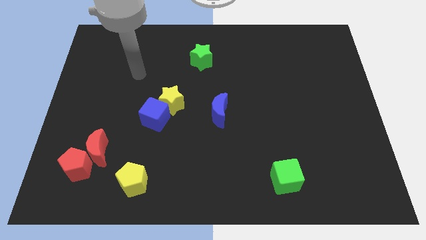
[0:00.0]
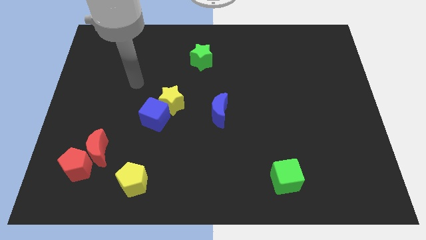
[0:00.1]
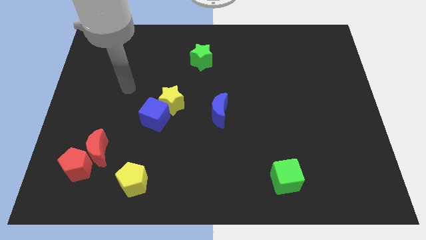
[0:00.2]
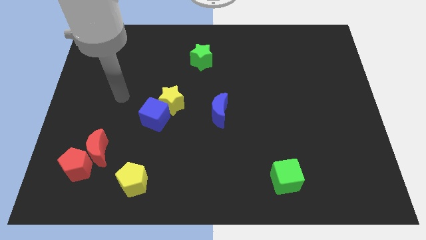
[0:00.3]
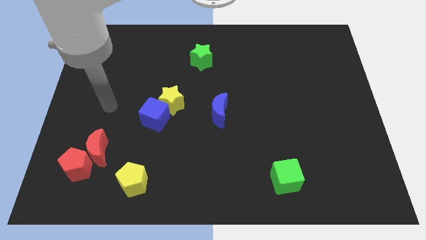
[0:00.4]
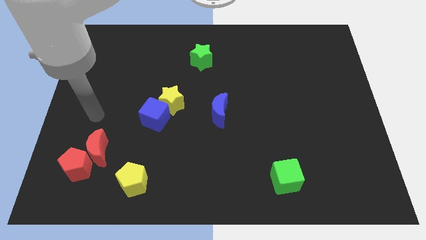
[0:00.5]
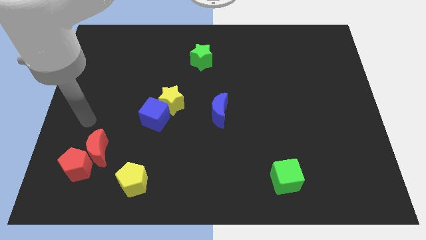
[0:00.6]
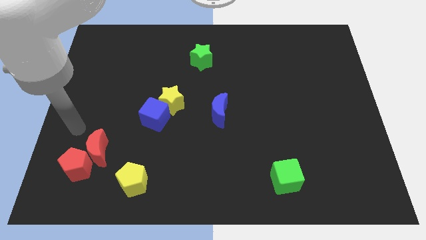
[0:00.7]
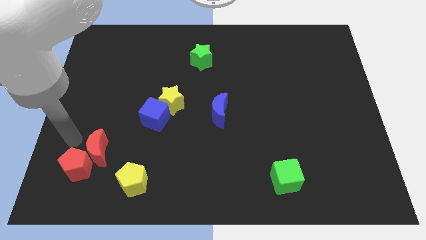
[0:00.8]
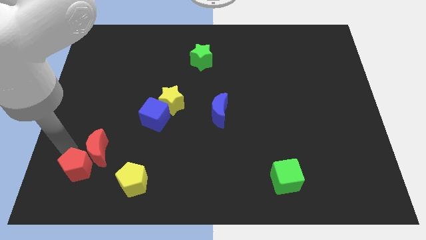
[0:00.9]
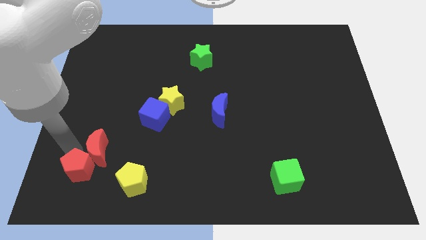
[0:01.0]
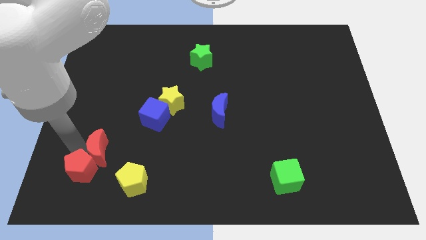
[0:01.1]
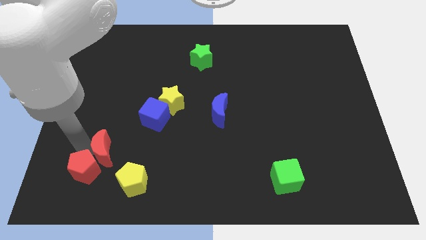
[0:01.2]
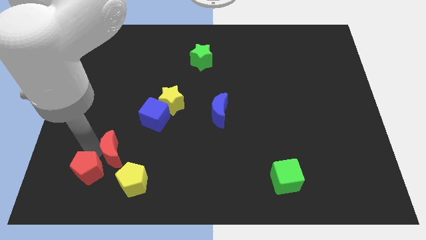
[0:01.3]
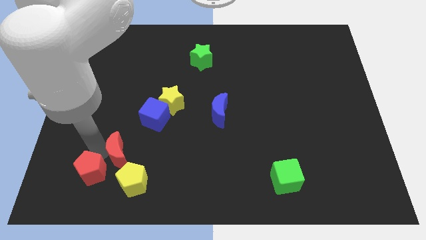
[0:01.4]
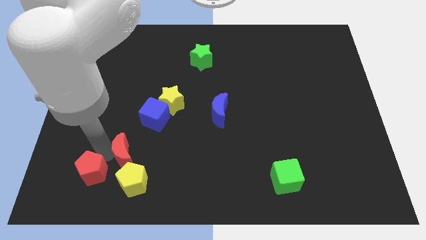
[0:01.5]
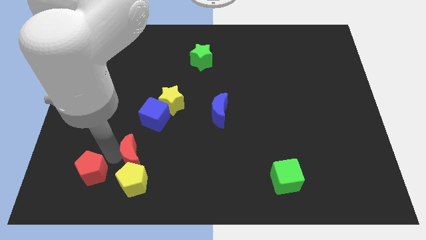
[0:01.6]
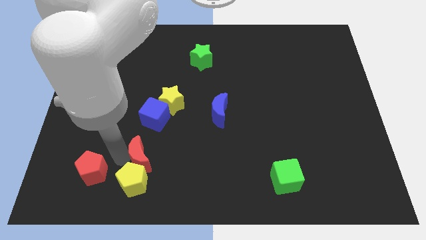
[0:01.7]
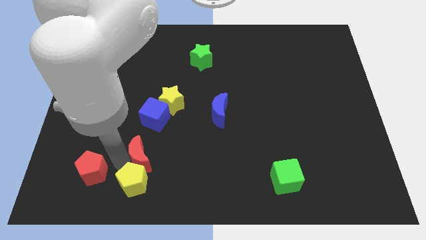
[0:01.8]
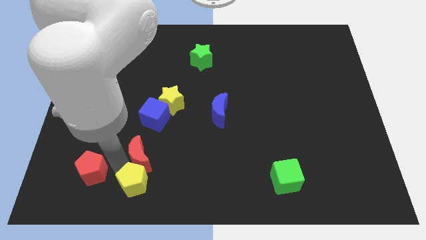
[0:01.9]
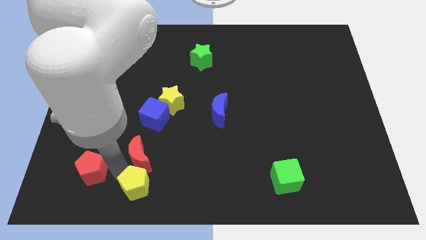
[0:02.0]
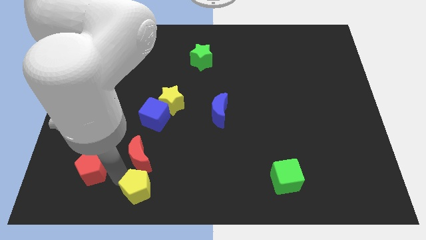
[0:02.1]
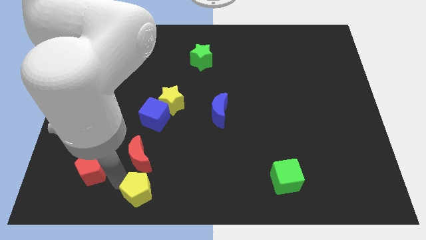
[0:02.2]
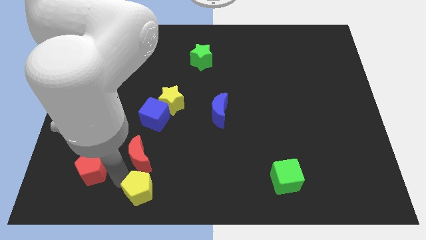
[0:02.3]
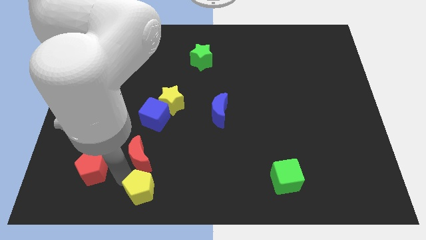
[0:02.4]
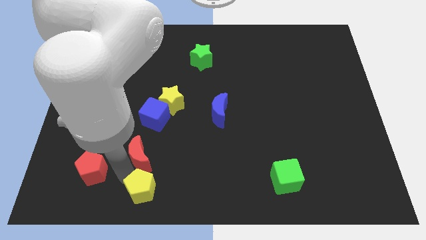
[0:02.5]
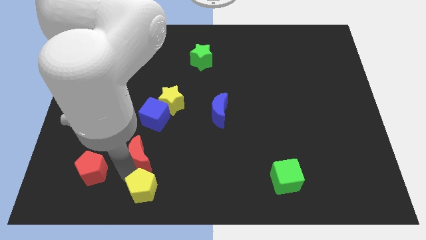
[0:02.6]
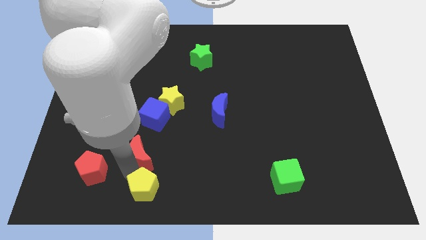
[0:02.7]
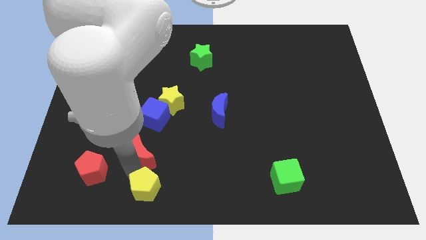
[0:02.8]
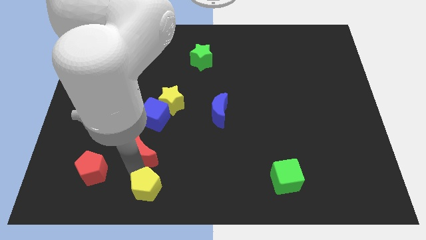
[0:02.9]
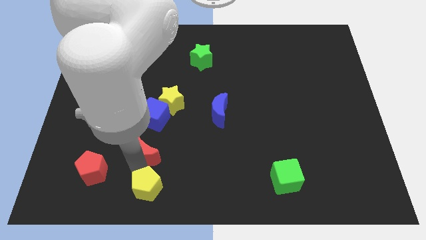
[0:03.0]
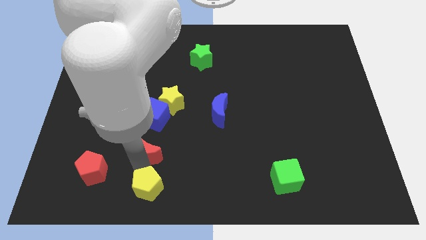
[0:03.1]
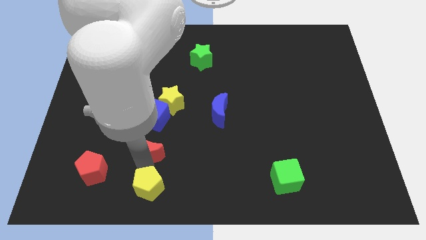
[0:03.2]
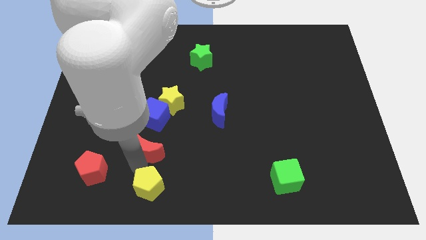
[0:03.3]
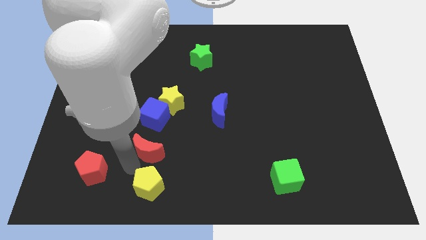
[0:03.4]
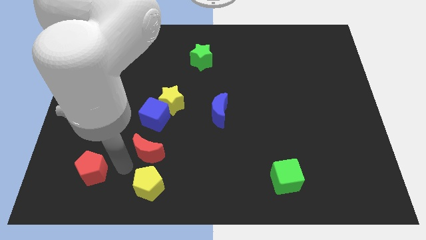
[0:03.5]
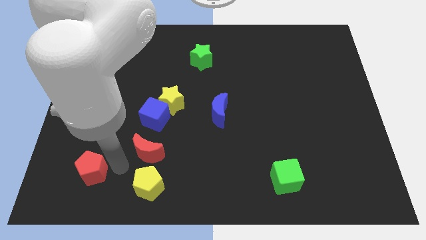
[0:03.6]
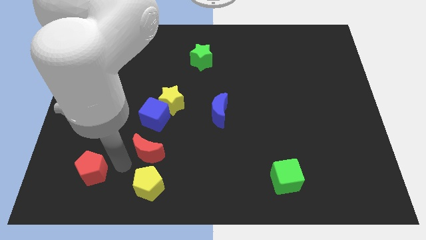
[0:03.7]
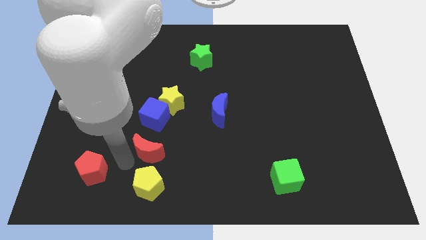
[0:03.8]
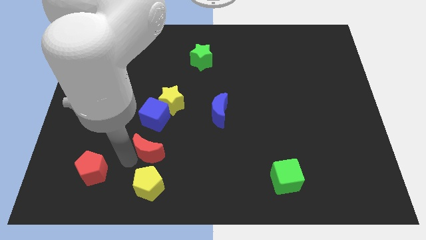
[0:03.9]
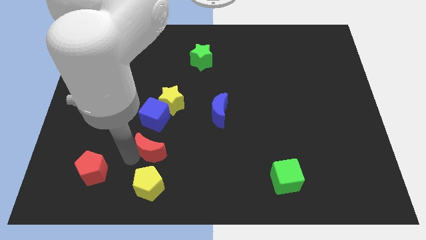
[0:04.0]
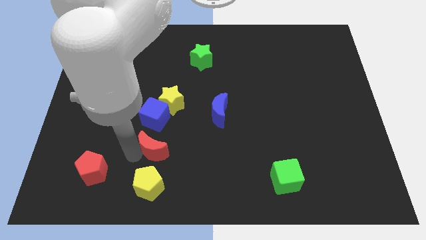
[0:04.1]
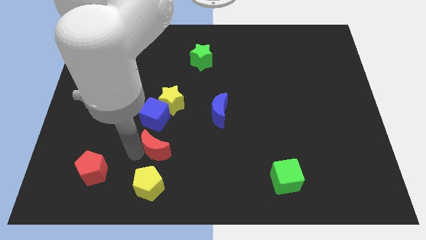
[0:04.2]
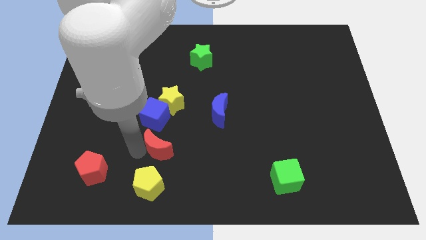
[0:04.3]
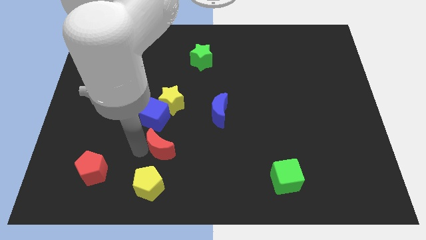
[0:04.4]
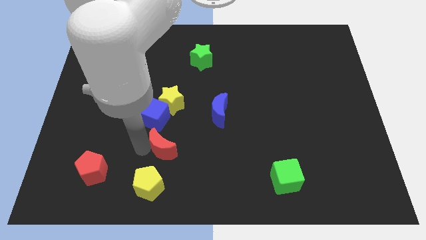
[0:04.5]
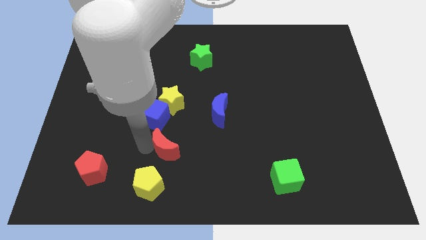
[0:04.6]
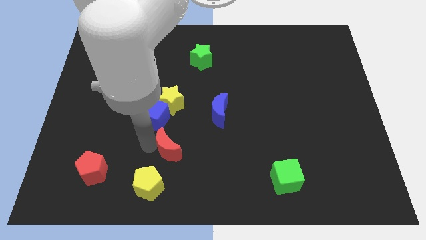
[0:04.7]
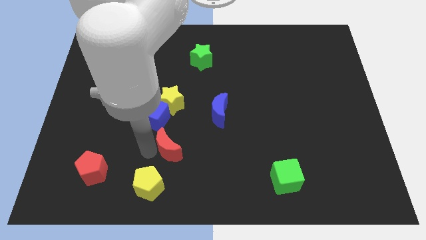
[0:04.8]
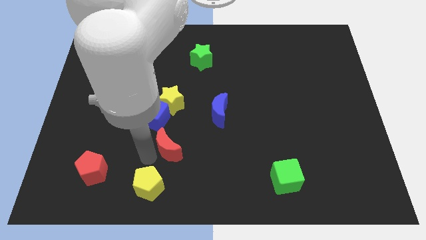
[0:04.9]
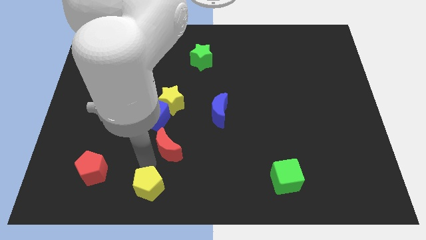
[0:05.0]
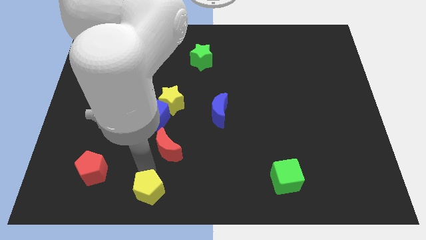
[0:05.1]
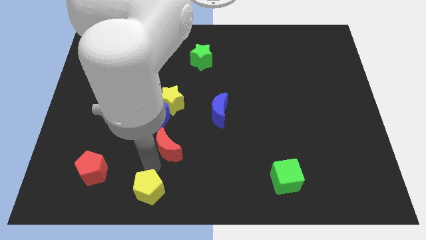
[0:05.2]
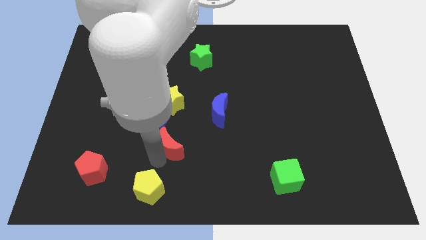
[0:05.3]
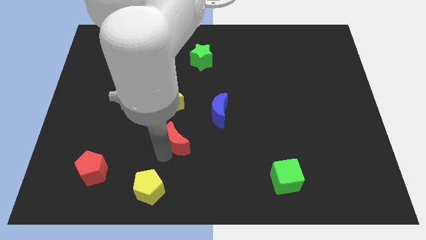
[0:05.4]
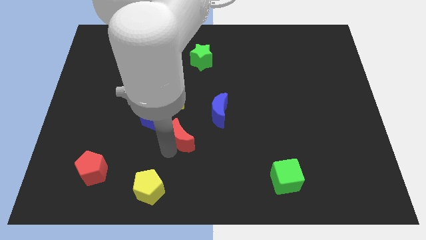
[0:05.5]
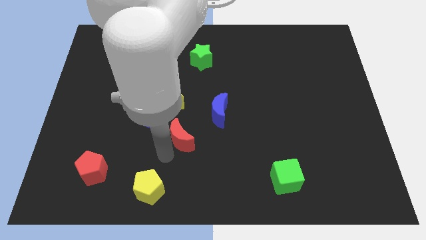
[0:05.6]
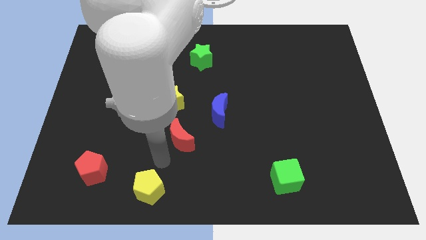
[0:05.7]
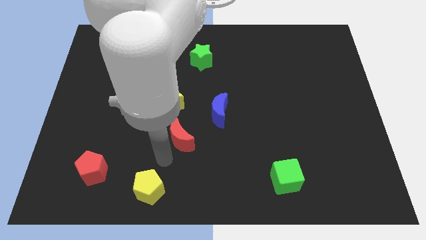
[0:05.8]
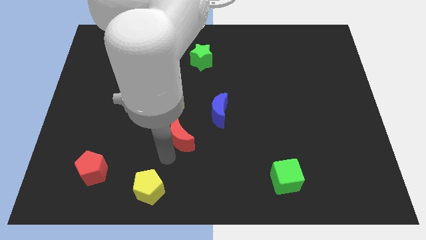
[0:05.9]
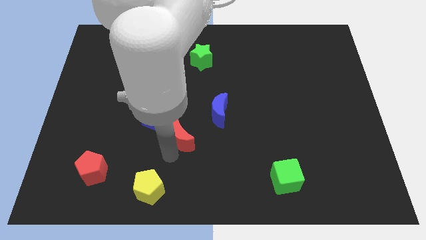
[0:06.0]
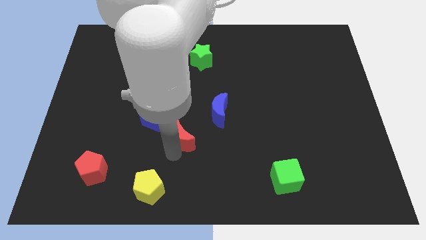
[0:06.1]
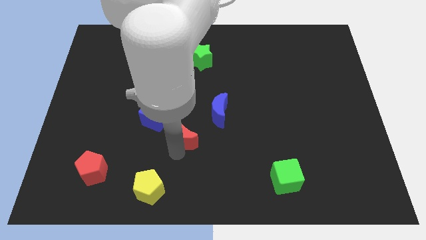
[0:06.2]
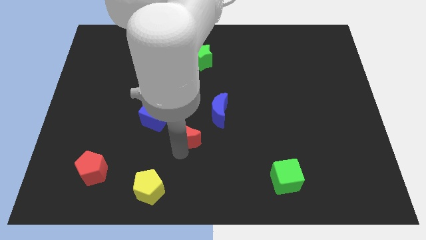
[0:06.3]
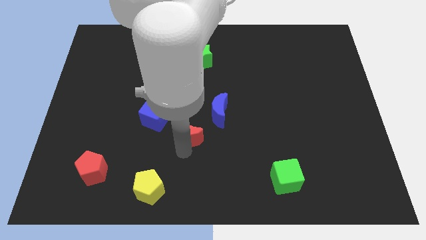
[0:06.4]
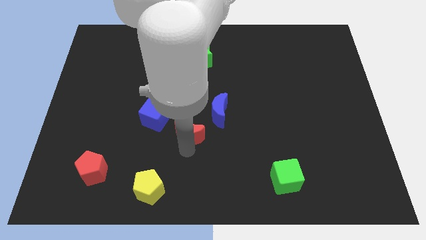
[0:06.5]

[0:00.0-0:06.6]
put the red moon right of the blue cube
